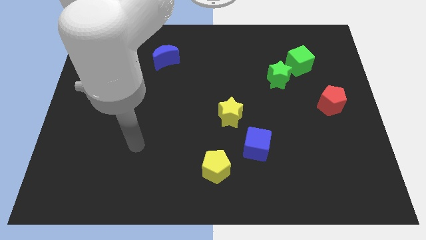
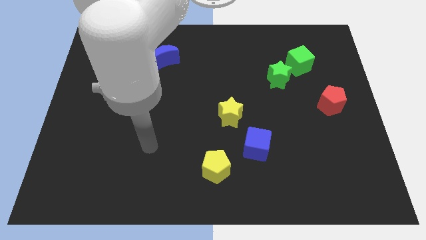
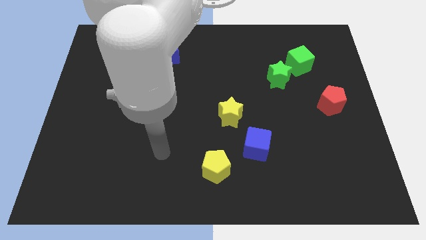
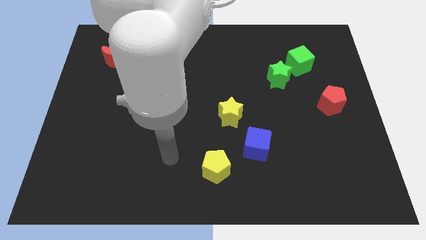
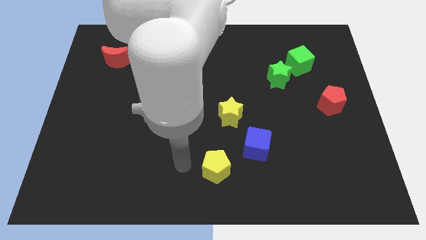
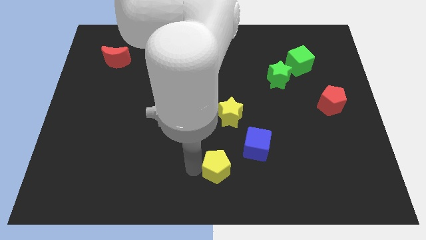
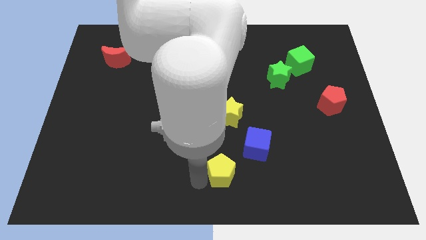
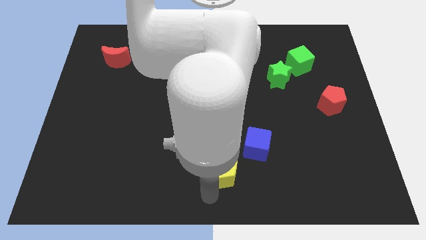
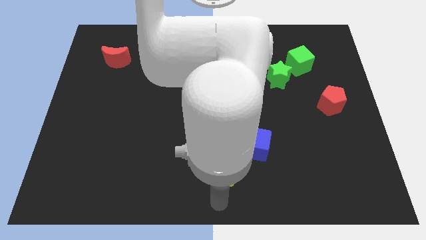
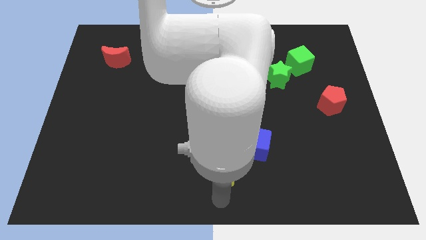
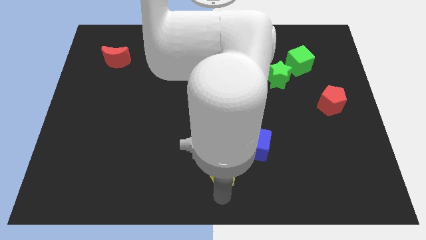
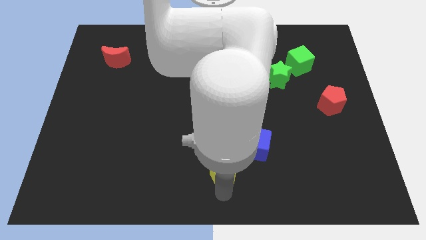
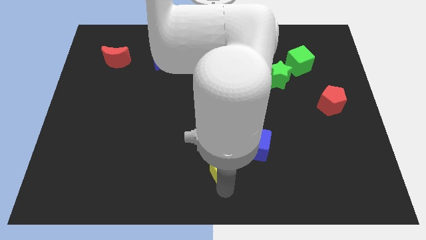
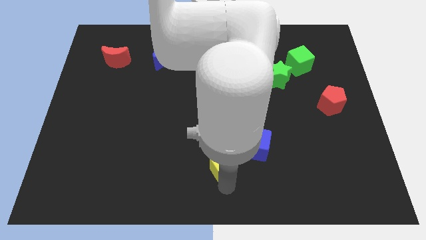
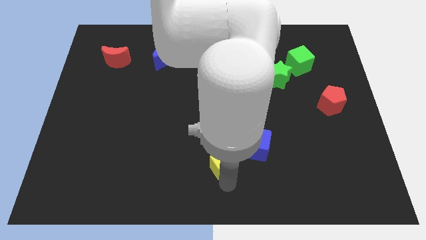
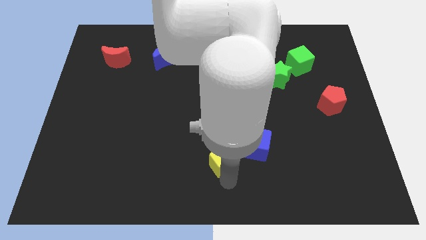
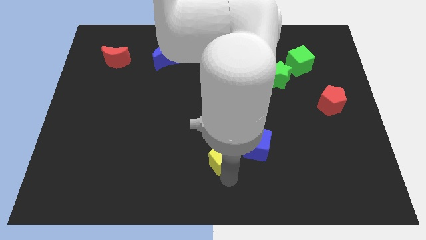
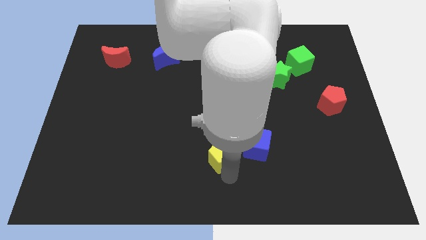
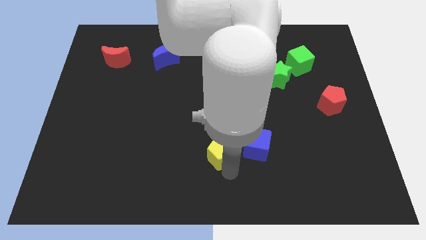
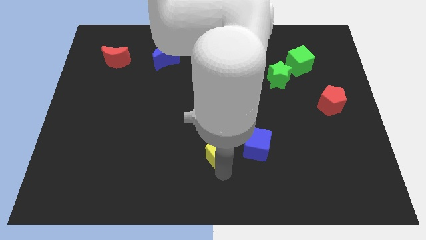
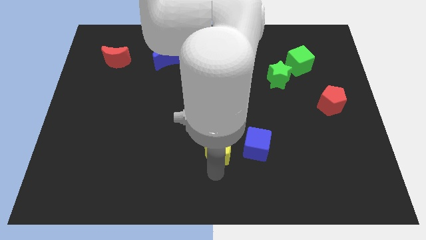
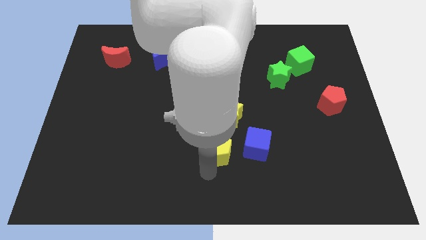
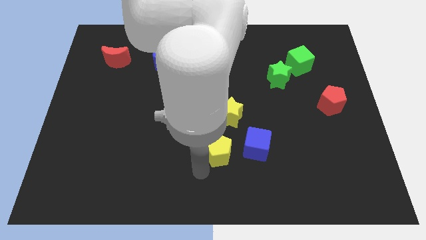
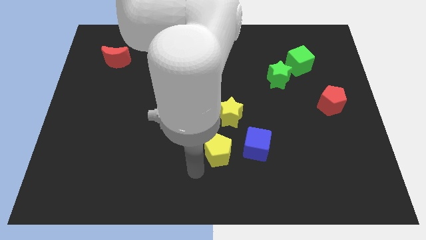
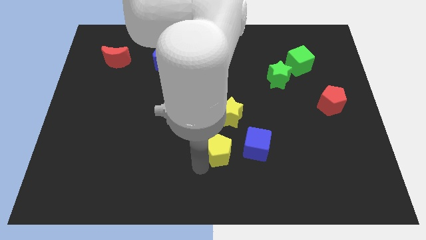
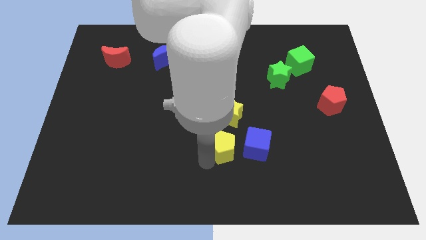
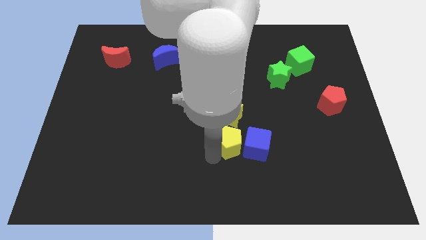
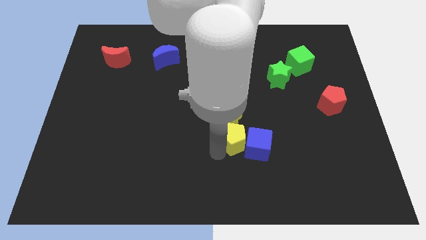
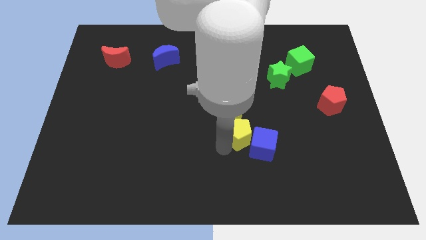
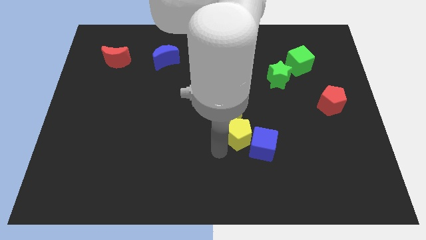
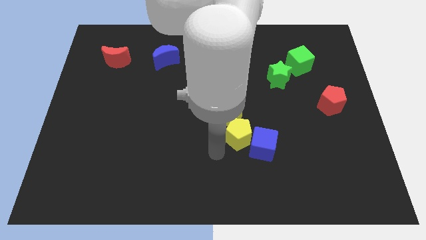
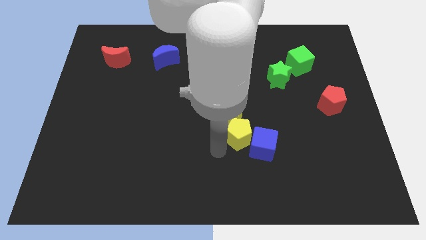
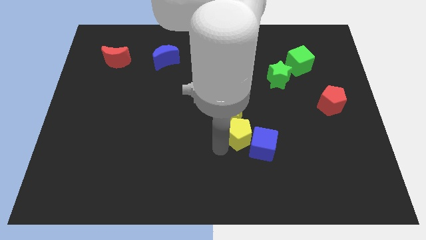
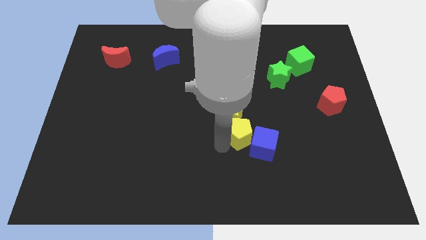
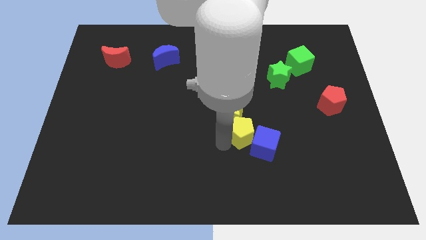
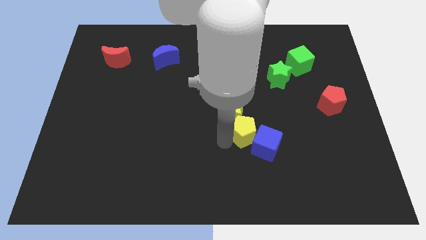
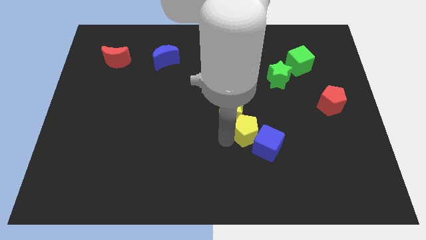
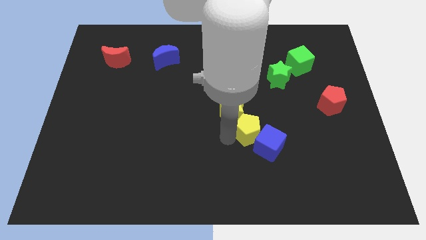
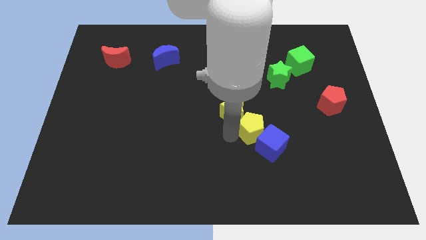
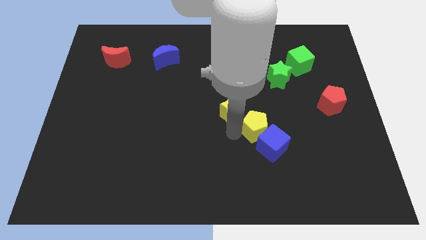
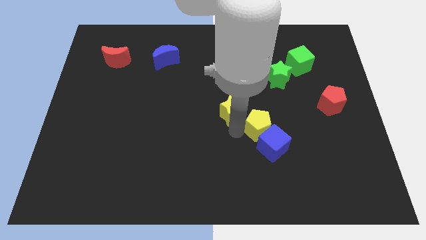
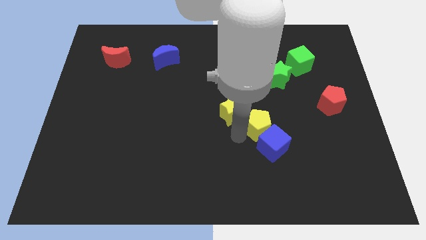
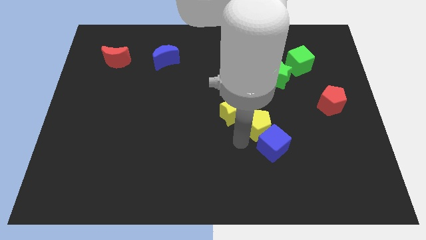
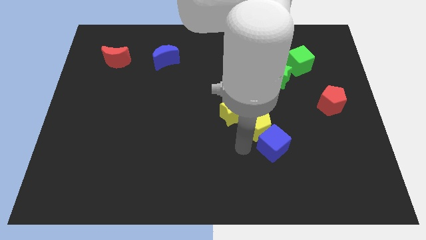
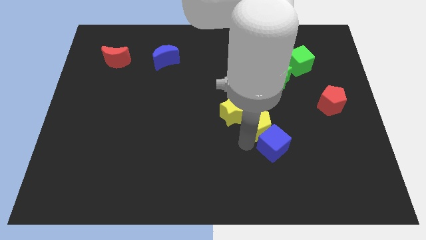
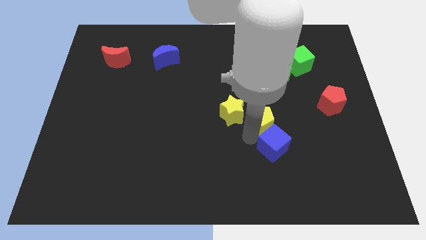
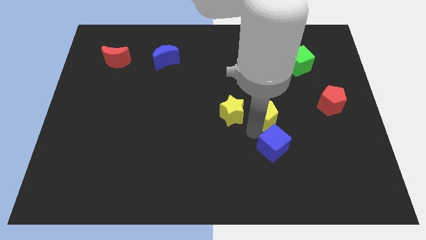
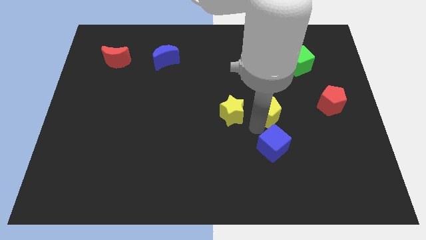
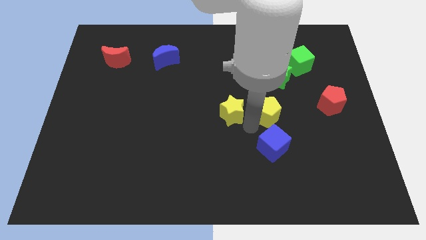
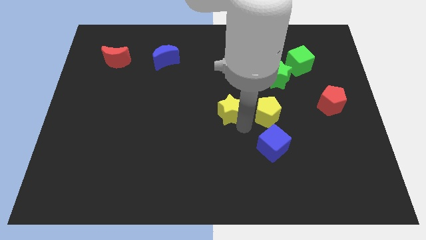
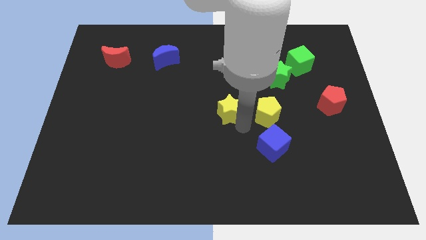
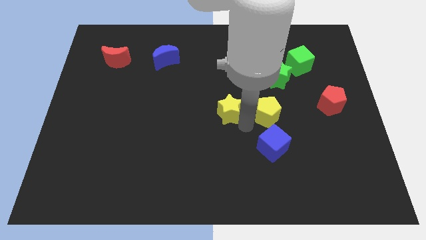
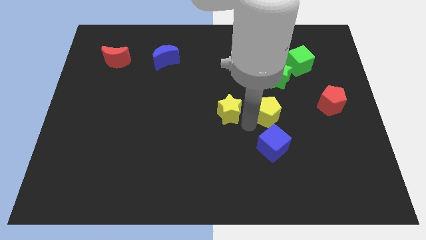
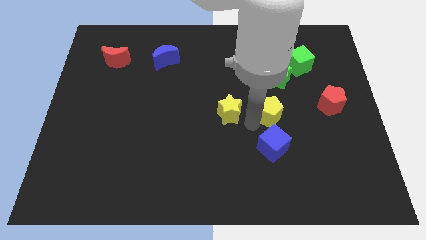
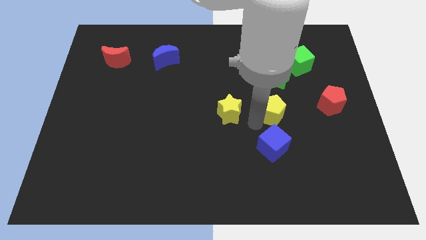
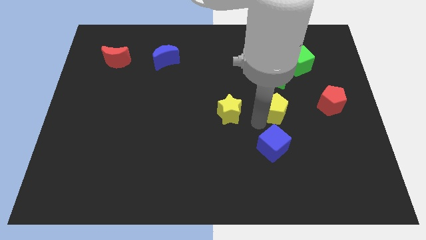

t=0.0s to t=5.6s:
move the yellow pentagon upwards and to the right

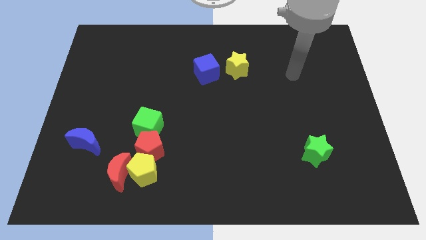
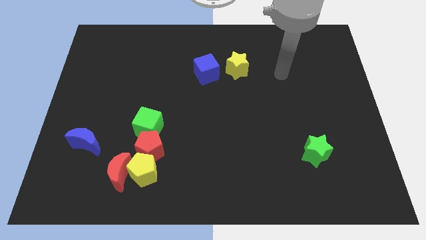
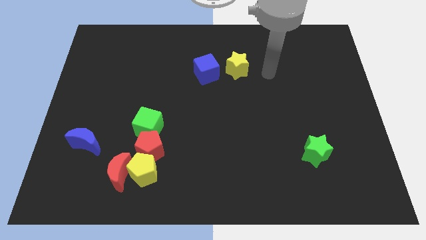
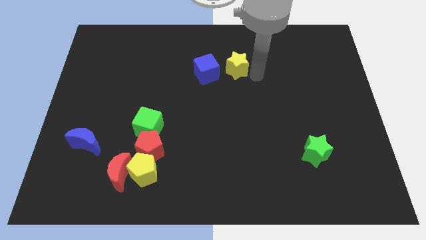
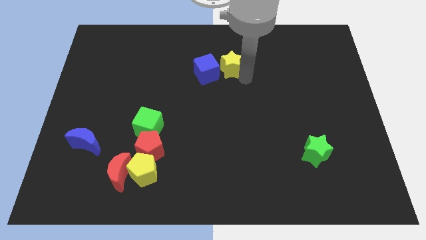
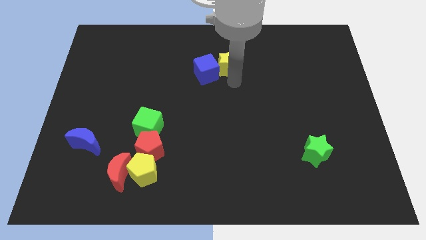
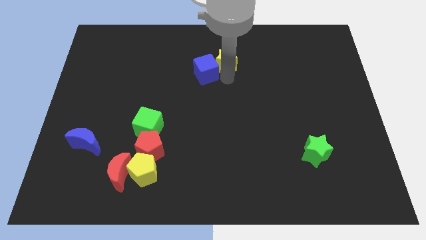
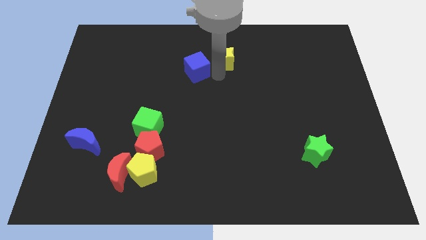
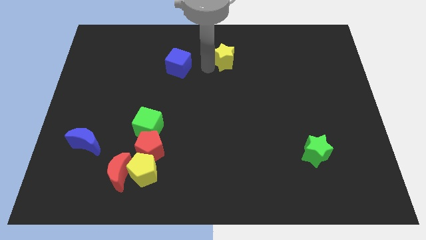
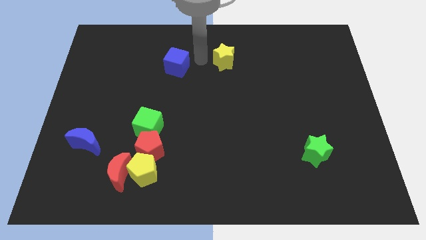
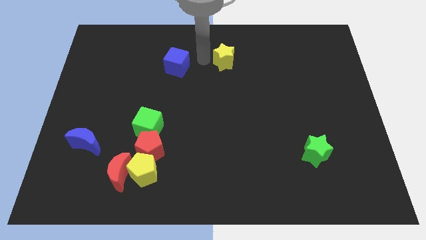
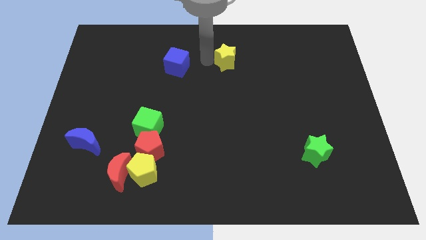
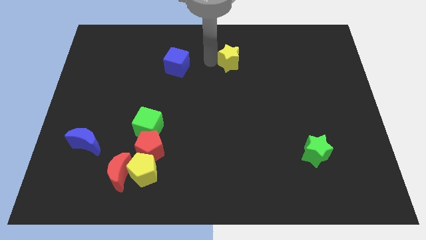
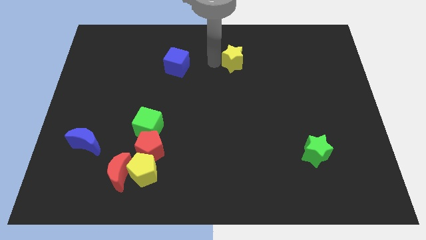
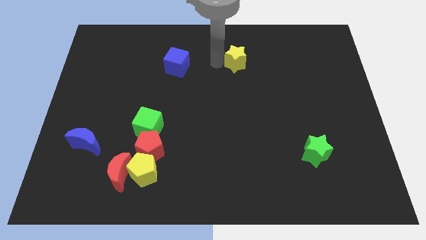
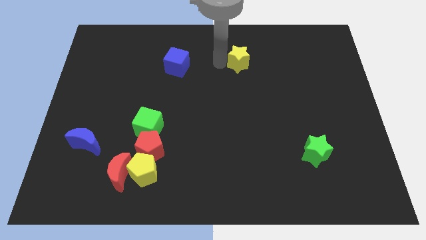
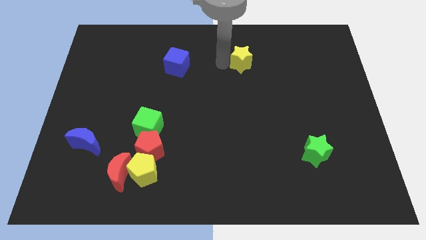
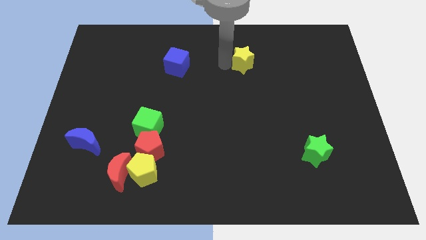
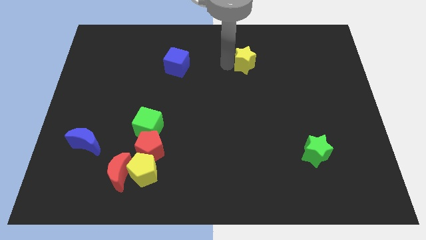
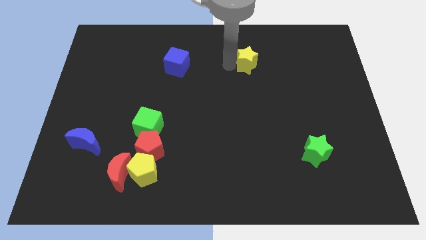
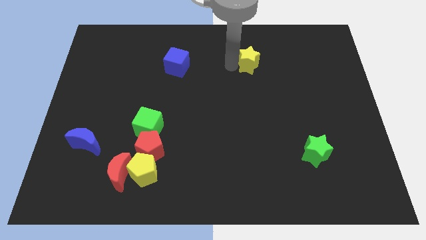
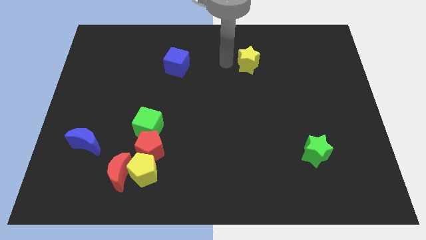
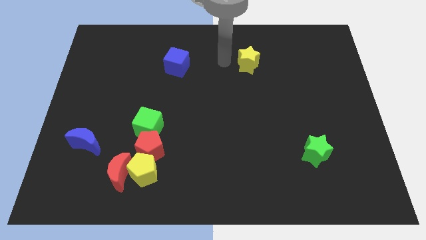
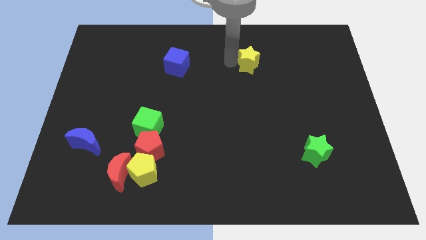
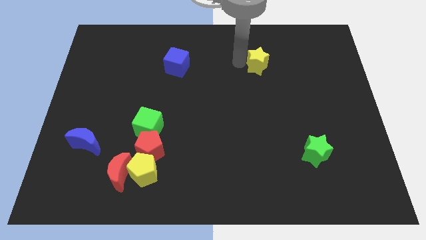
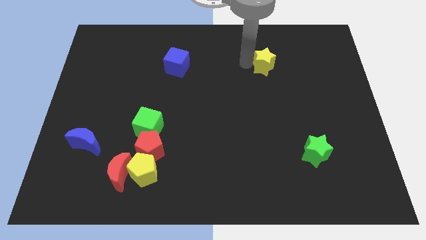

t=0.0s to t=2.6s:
slightly push the yellow star to the right
